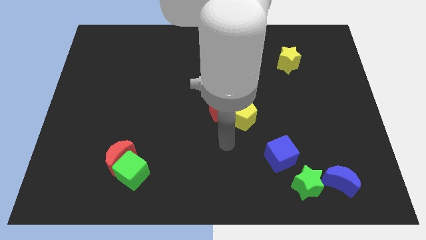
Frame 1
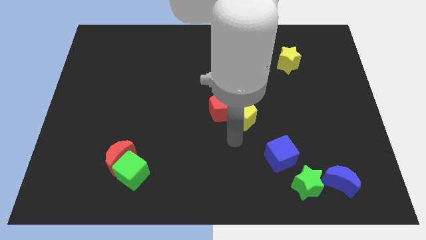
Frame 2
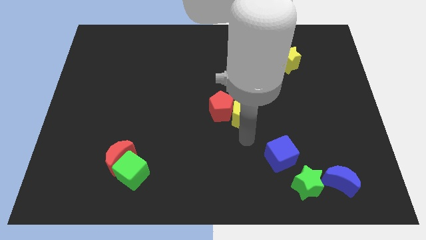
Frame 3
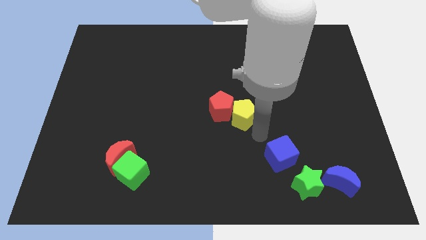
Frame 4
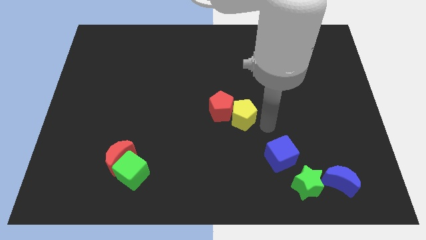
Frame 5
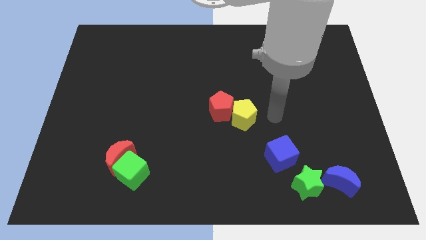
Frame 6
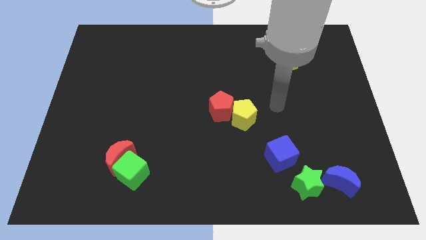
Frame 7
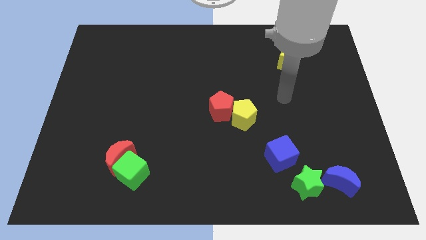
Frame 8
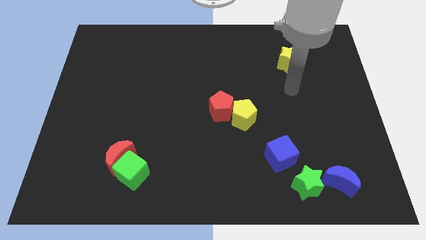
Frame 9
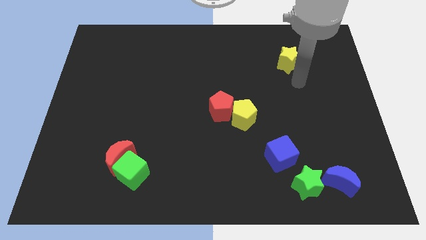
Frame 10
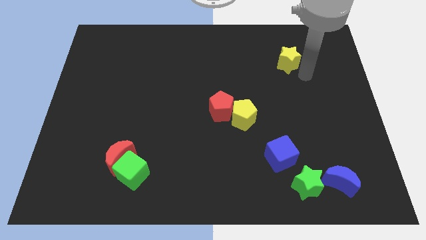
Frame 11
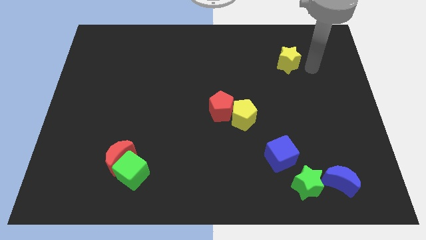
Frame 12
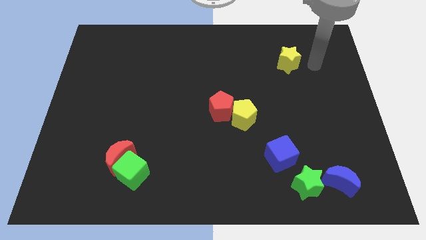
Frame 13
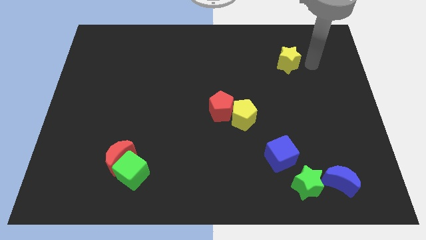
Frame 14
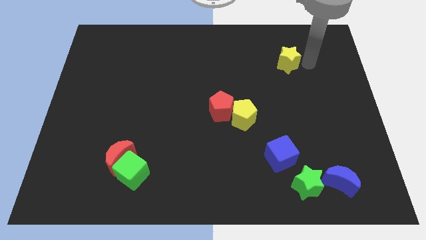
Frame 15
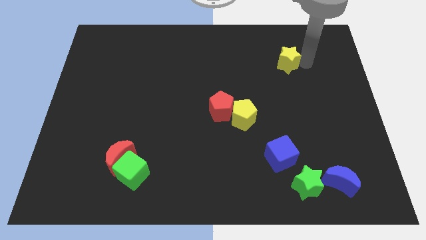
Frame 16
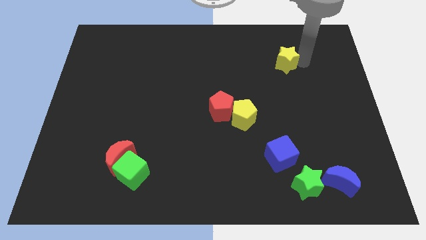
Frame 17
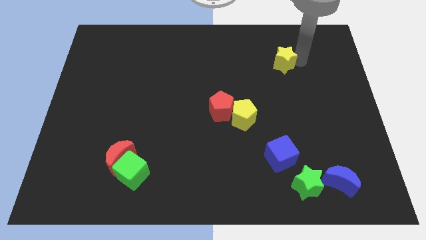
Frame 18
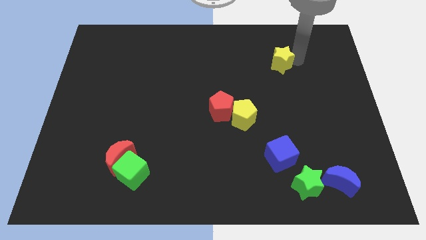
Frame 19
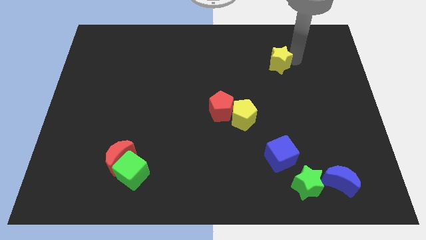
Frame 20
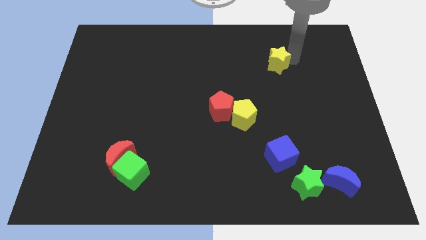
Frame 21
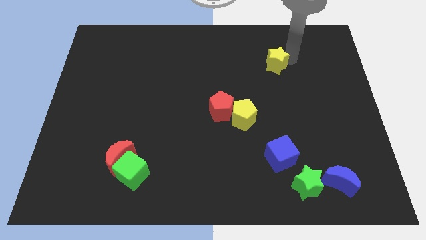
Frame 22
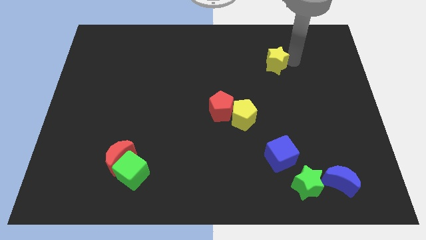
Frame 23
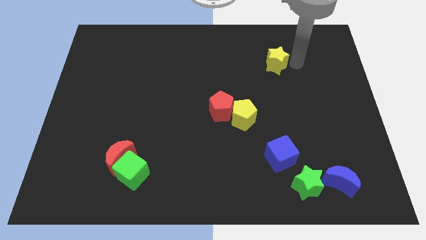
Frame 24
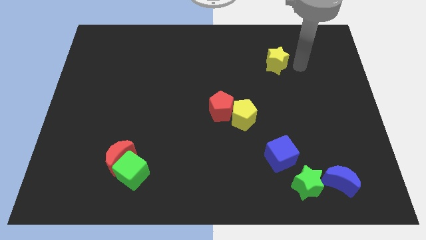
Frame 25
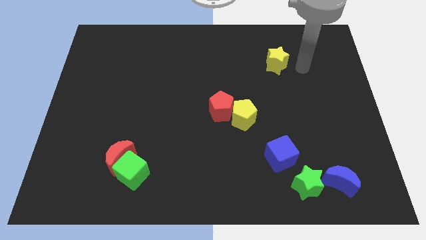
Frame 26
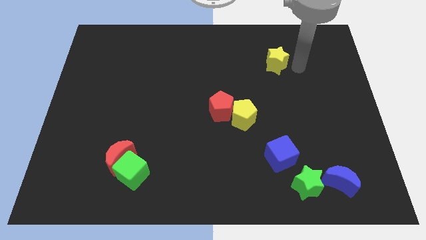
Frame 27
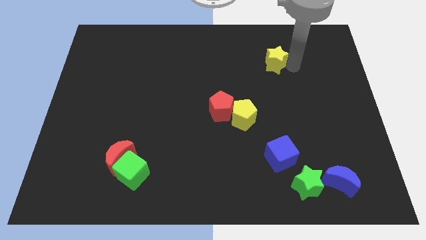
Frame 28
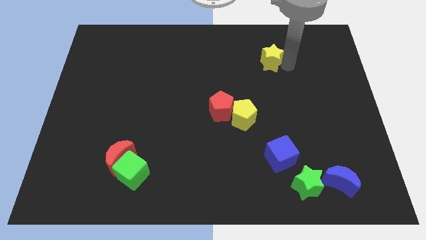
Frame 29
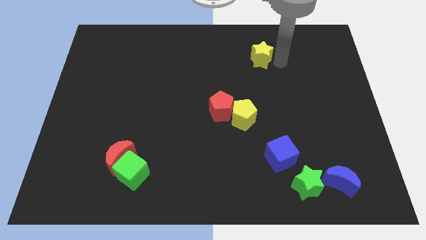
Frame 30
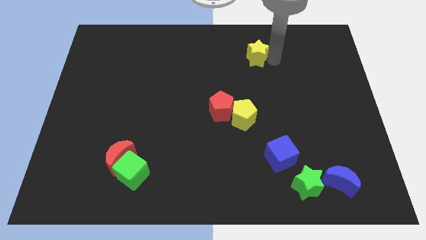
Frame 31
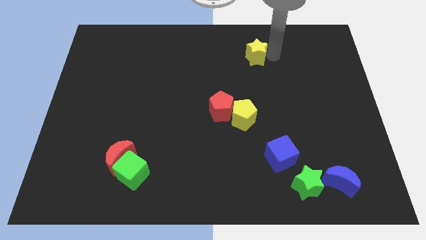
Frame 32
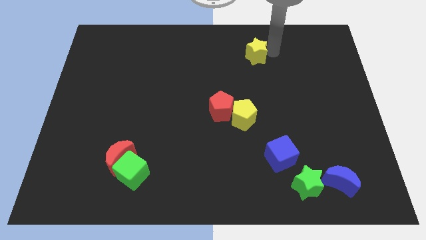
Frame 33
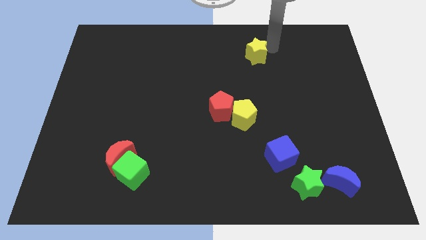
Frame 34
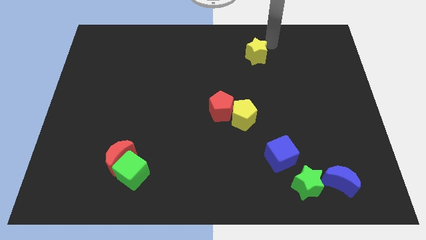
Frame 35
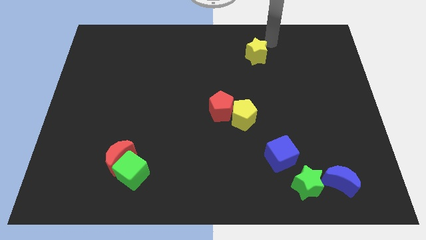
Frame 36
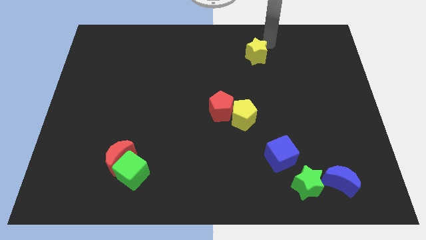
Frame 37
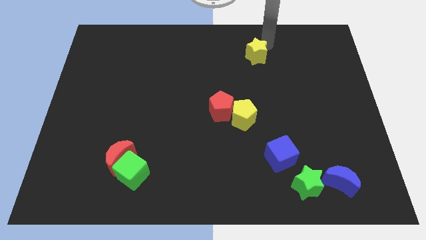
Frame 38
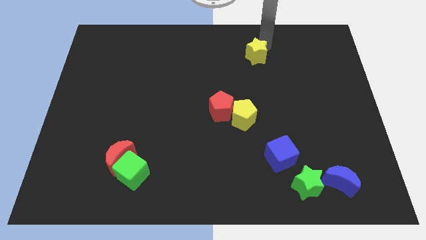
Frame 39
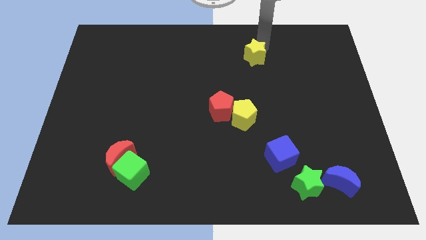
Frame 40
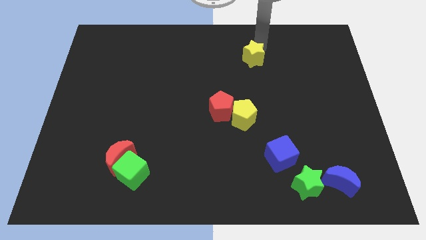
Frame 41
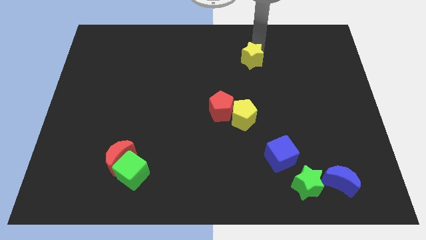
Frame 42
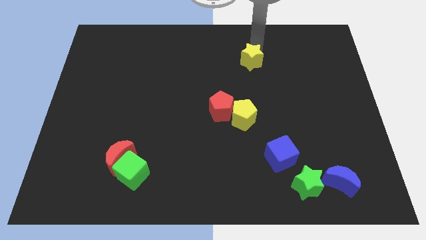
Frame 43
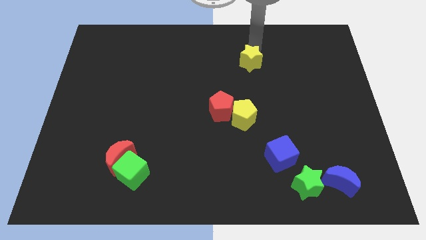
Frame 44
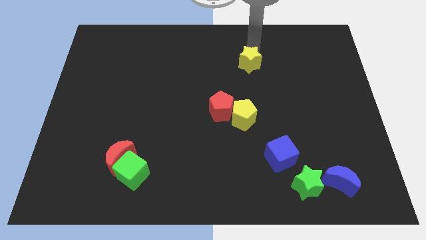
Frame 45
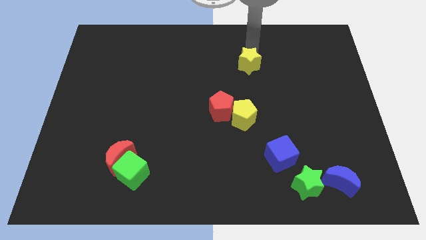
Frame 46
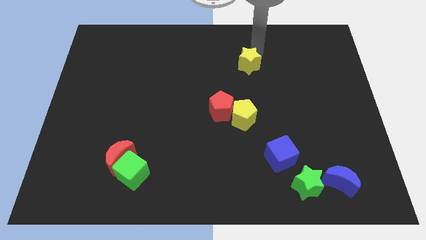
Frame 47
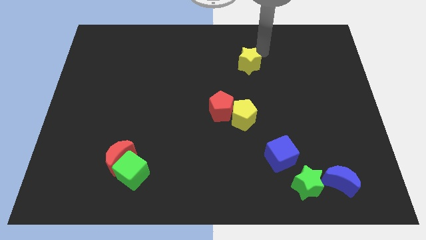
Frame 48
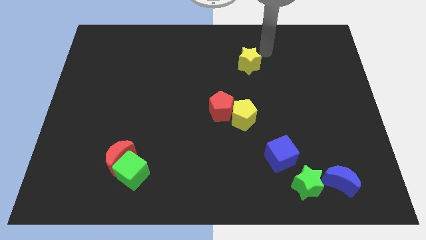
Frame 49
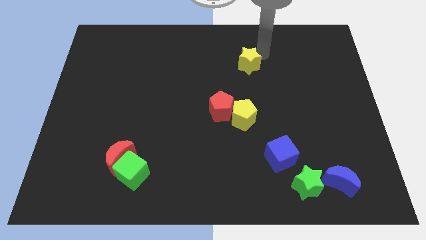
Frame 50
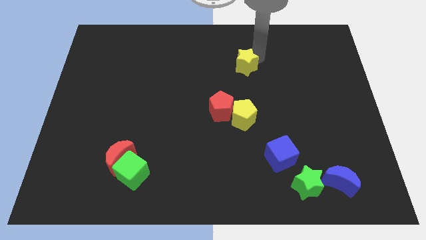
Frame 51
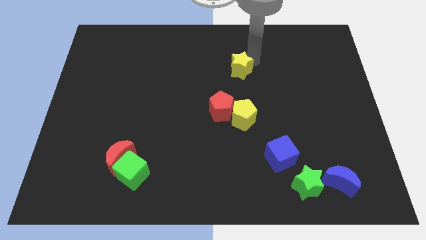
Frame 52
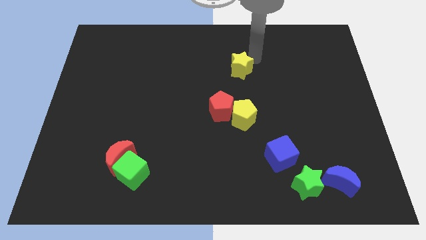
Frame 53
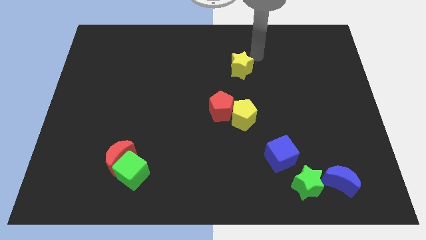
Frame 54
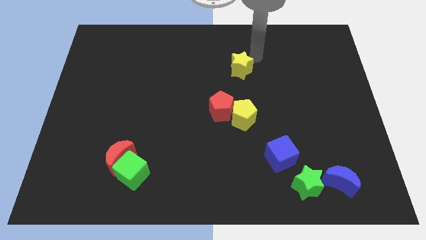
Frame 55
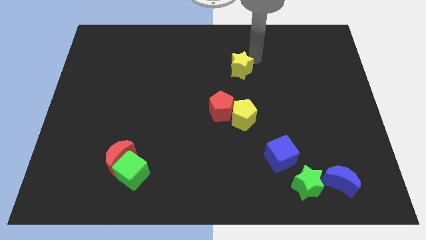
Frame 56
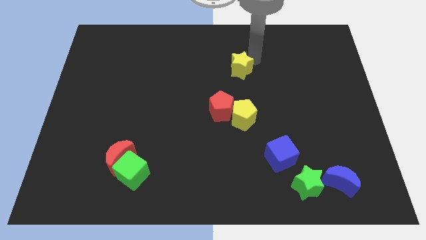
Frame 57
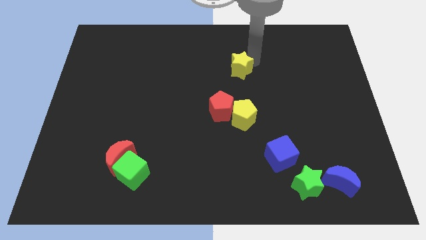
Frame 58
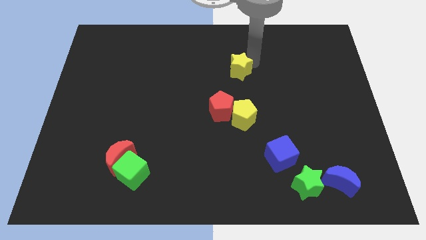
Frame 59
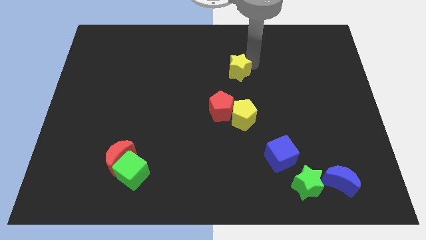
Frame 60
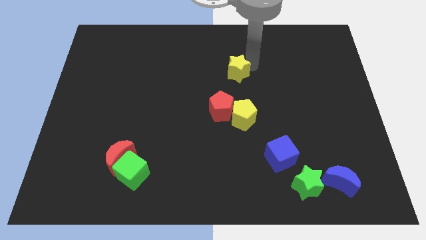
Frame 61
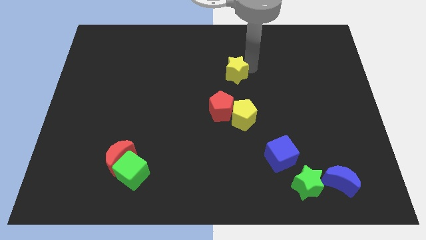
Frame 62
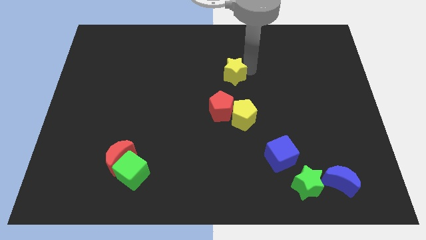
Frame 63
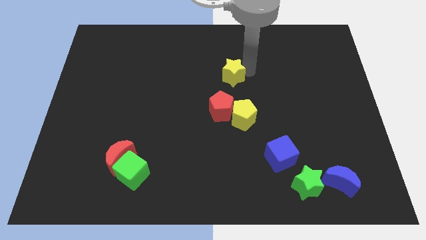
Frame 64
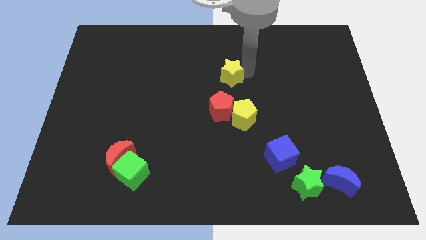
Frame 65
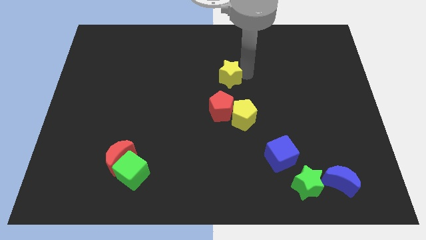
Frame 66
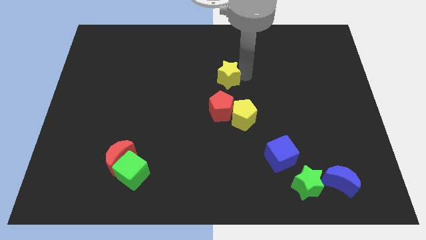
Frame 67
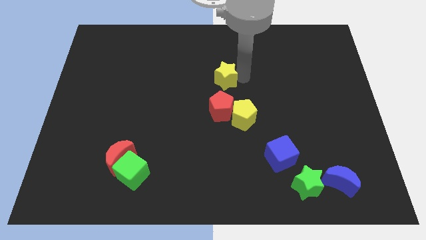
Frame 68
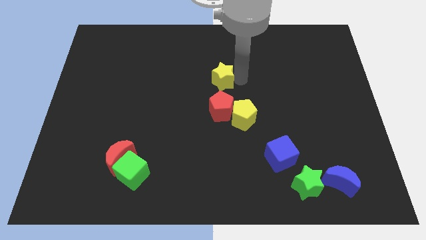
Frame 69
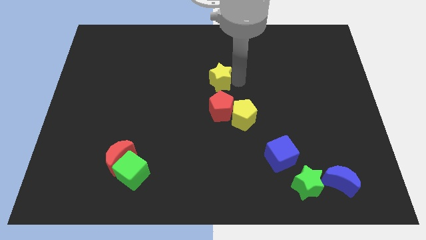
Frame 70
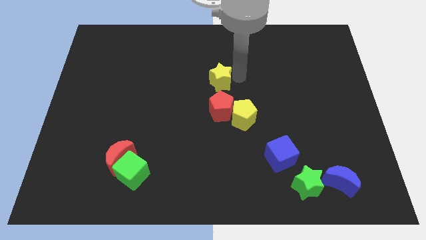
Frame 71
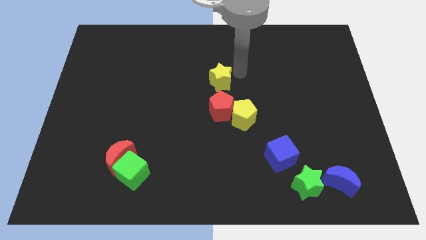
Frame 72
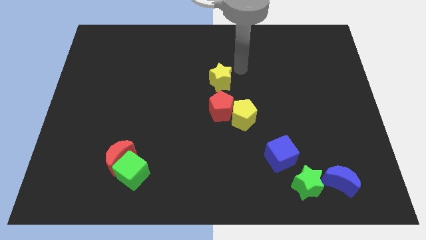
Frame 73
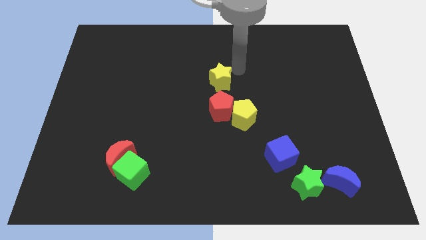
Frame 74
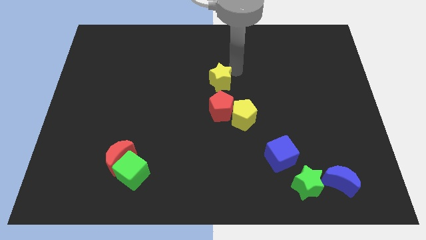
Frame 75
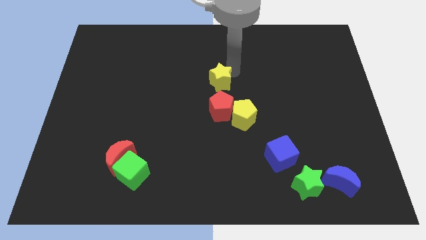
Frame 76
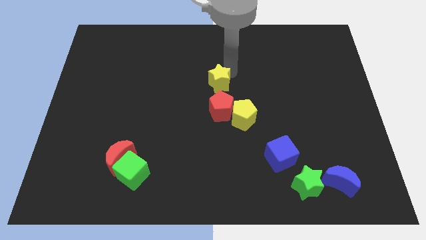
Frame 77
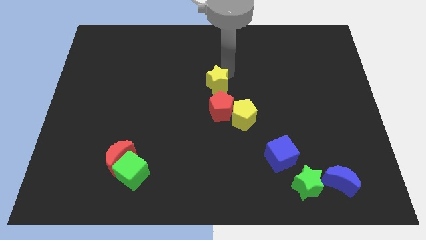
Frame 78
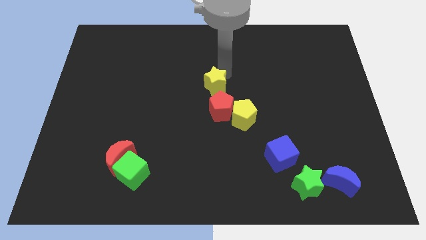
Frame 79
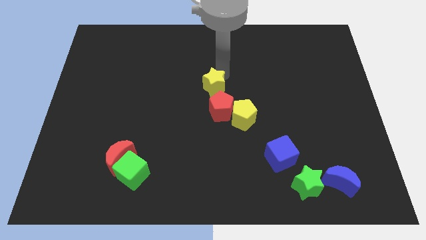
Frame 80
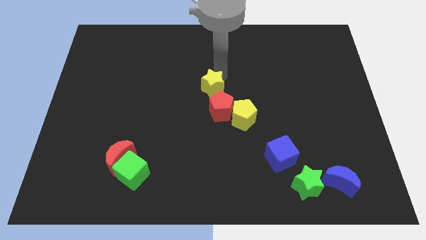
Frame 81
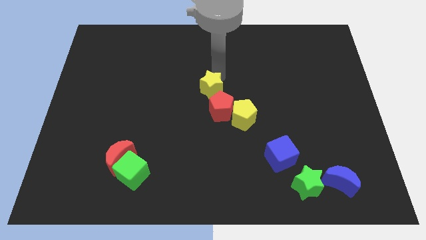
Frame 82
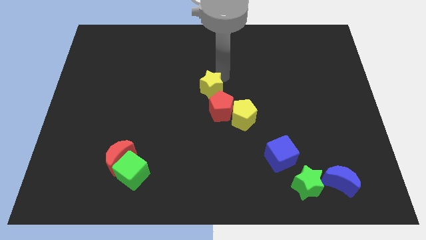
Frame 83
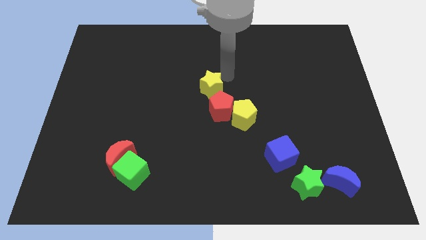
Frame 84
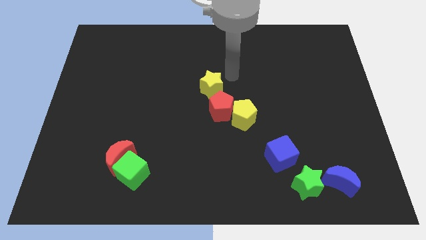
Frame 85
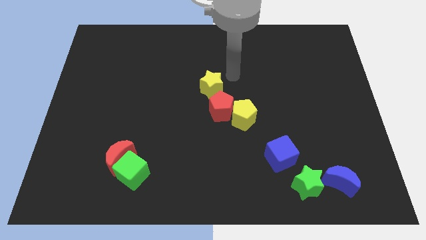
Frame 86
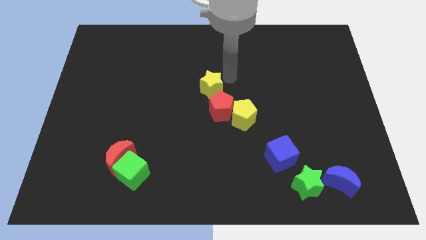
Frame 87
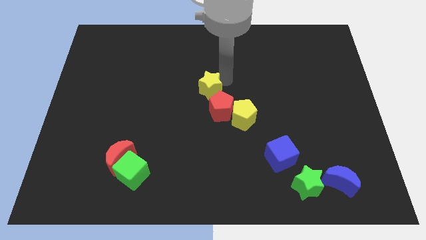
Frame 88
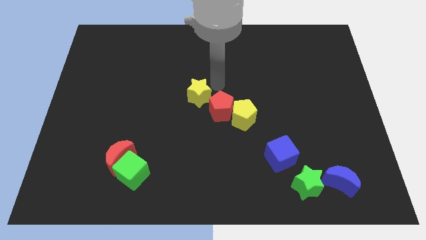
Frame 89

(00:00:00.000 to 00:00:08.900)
move the yellow star just left of the red pentagon
